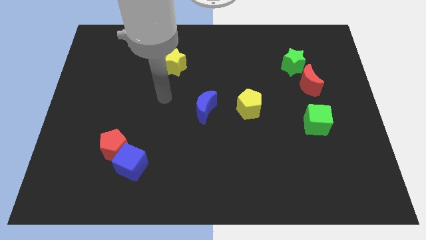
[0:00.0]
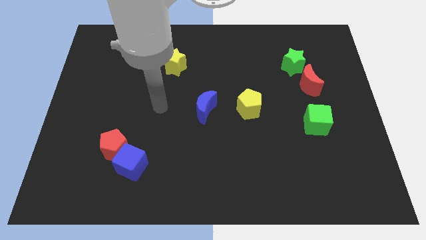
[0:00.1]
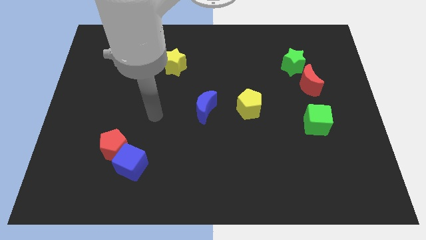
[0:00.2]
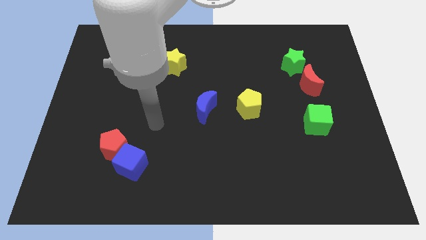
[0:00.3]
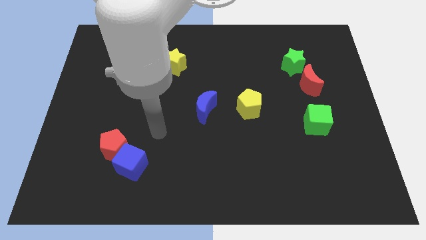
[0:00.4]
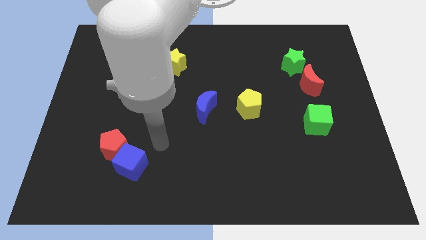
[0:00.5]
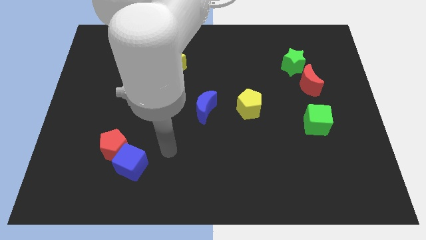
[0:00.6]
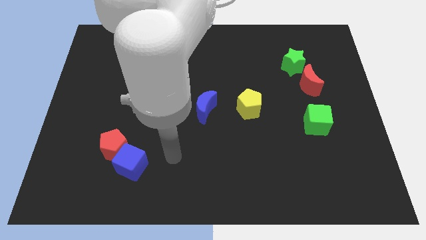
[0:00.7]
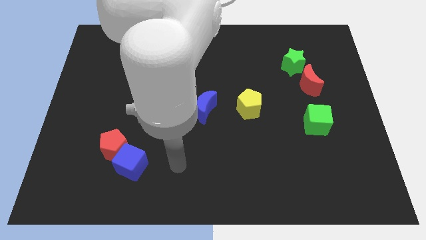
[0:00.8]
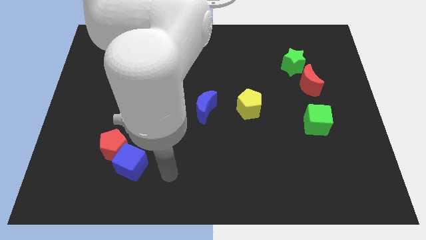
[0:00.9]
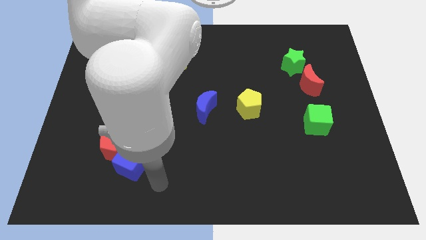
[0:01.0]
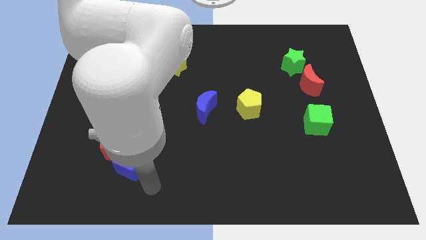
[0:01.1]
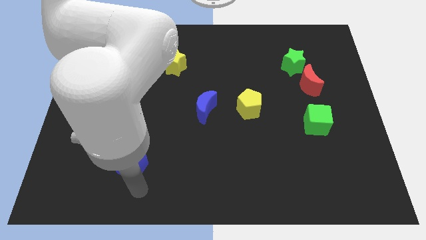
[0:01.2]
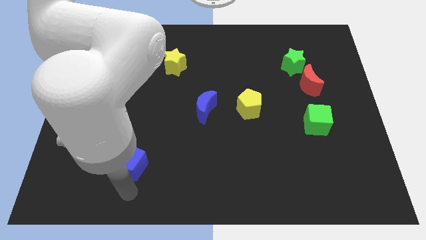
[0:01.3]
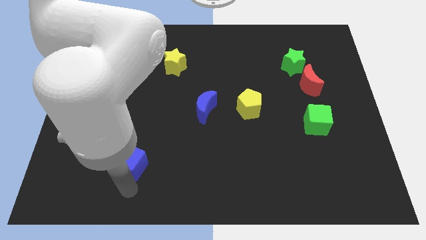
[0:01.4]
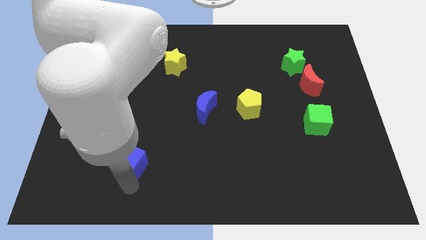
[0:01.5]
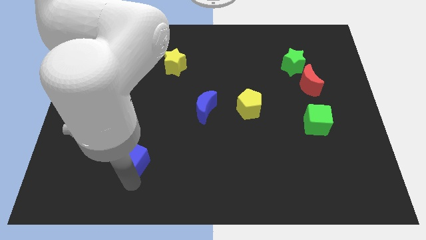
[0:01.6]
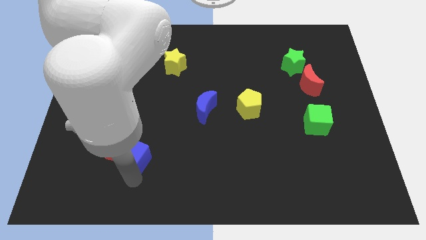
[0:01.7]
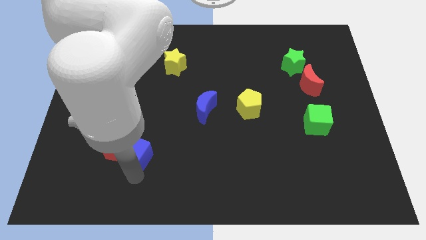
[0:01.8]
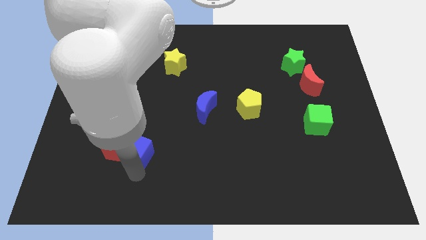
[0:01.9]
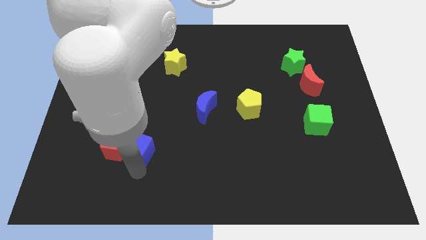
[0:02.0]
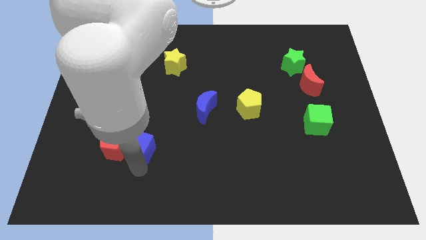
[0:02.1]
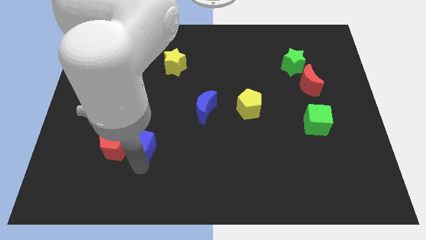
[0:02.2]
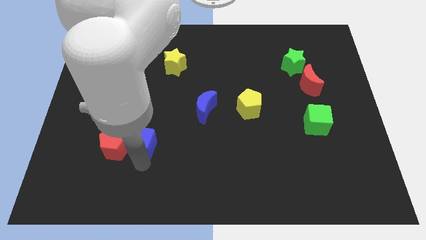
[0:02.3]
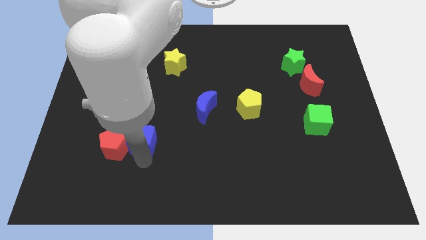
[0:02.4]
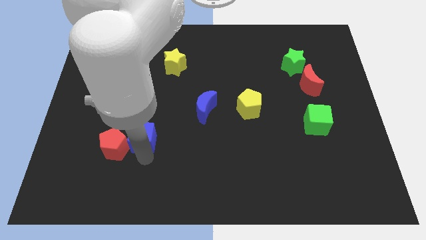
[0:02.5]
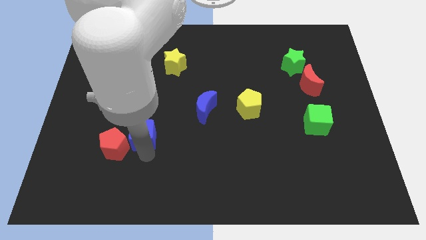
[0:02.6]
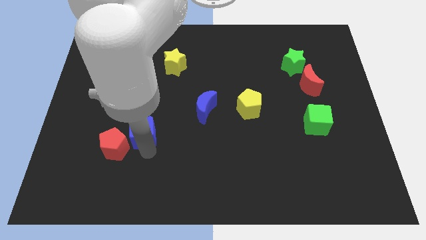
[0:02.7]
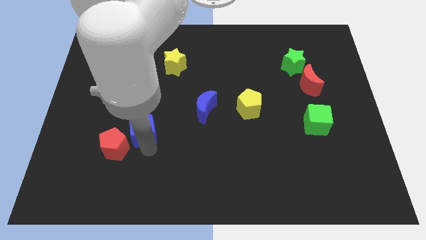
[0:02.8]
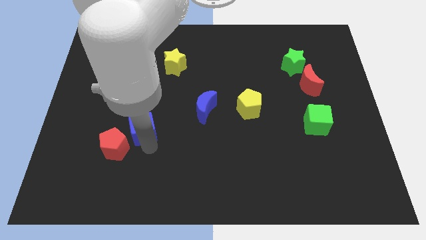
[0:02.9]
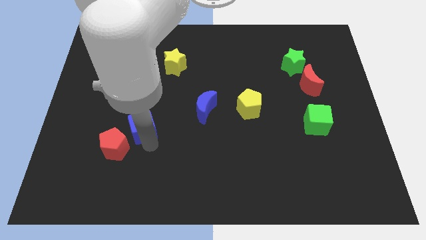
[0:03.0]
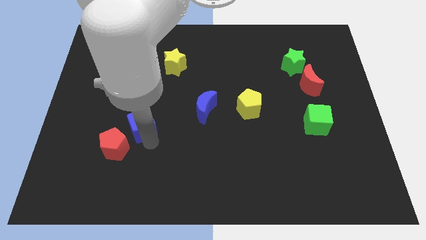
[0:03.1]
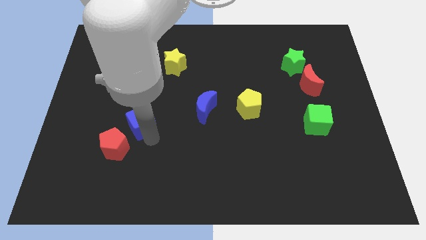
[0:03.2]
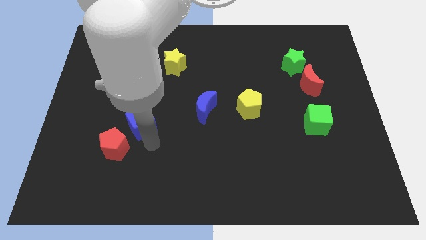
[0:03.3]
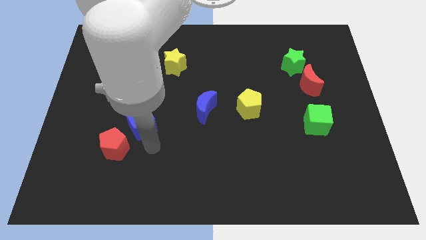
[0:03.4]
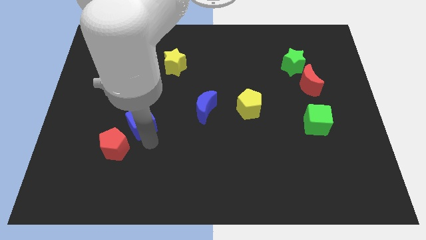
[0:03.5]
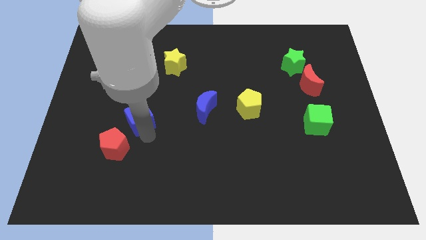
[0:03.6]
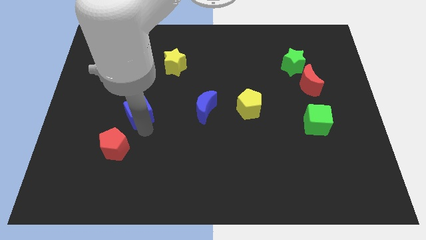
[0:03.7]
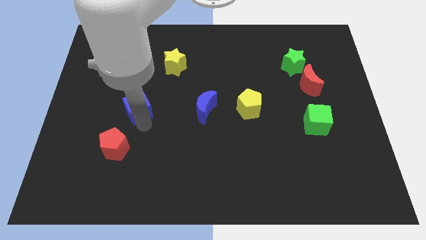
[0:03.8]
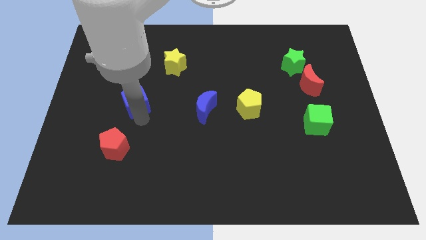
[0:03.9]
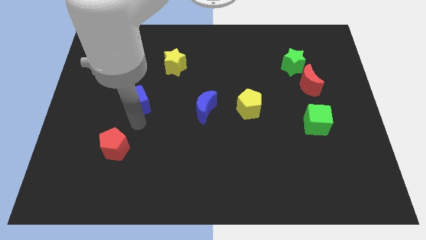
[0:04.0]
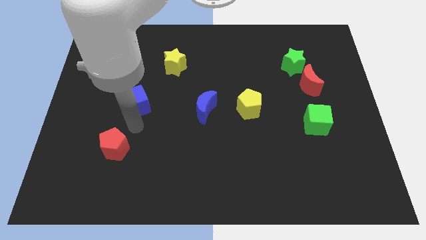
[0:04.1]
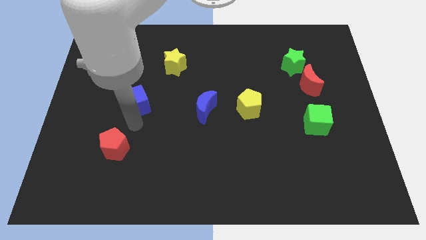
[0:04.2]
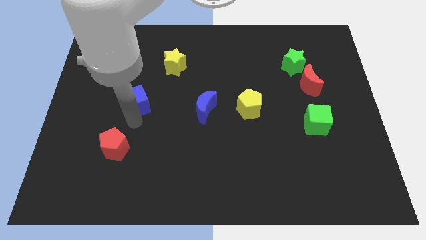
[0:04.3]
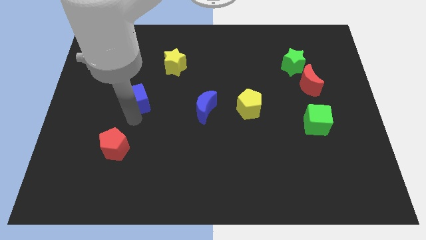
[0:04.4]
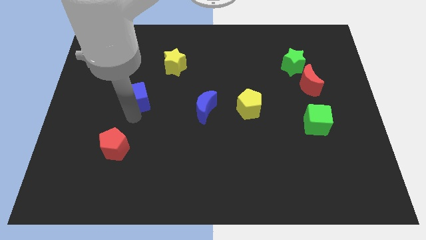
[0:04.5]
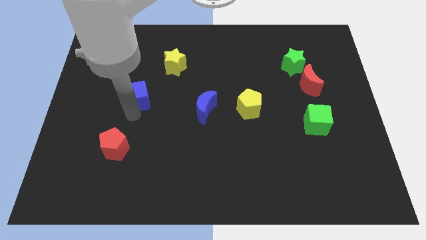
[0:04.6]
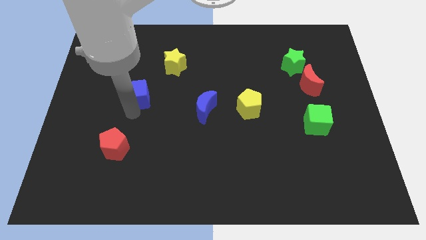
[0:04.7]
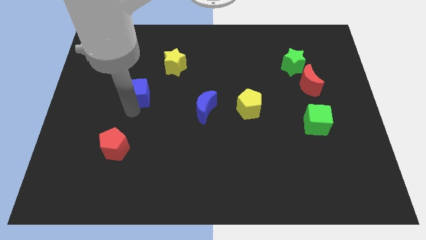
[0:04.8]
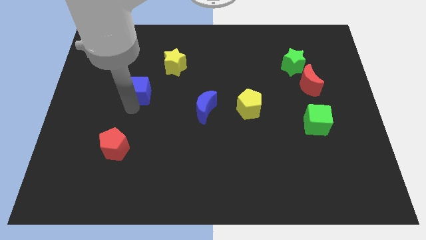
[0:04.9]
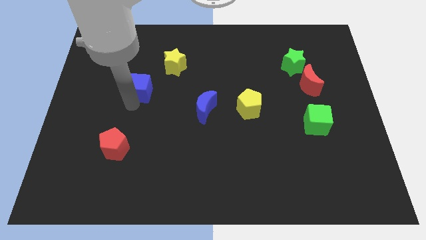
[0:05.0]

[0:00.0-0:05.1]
move the blue cube up

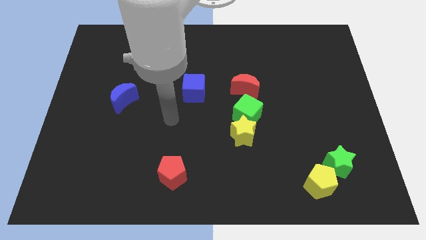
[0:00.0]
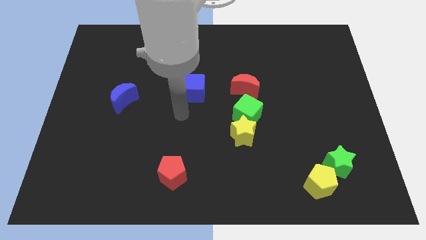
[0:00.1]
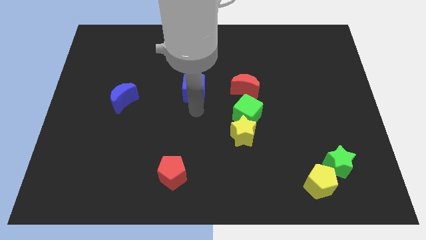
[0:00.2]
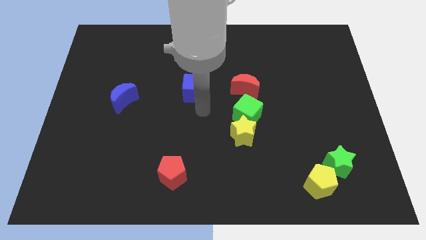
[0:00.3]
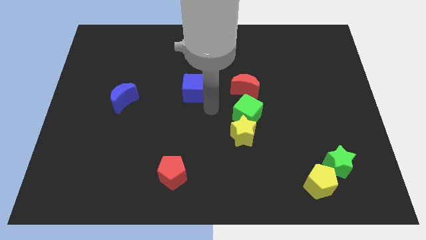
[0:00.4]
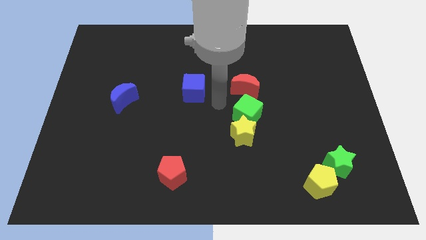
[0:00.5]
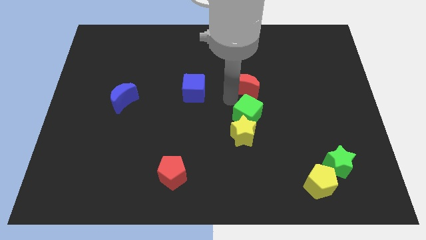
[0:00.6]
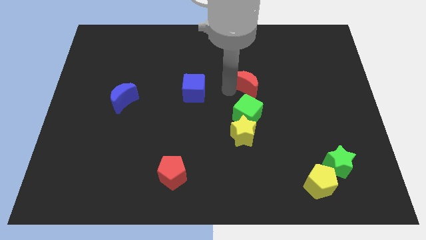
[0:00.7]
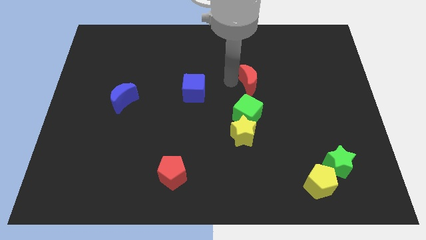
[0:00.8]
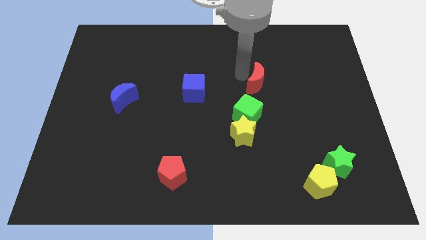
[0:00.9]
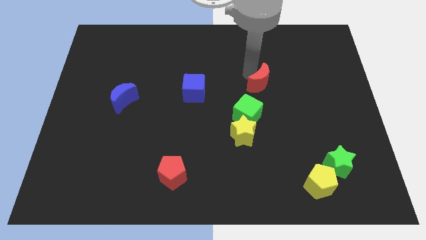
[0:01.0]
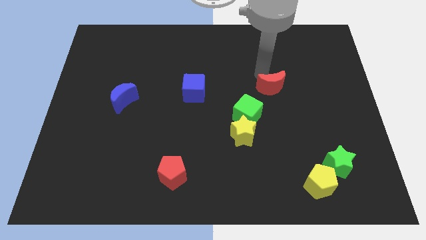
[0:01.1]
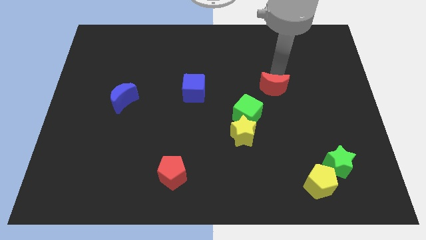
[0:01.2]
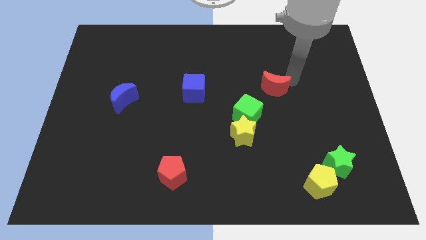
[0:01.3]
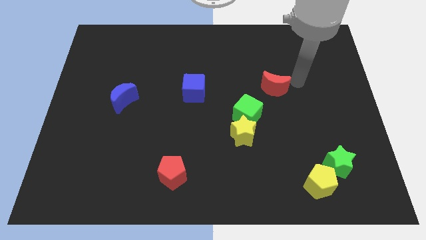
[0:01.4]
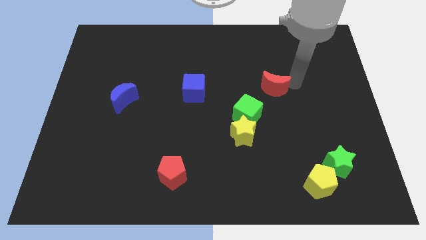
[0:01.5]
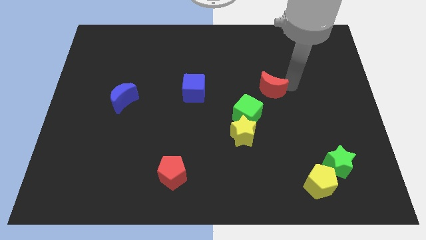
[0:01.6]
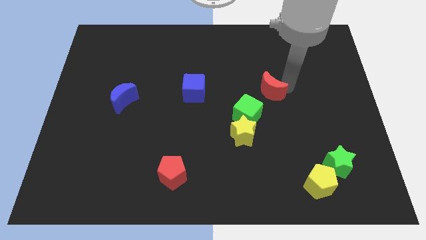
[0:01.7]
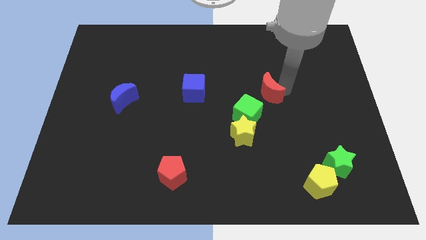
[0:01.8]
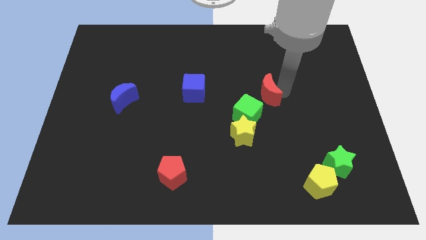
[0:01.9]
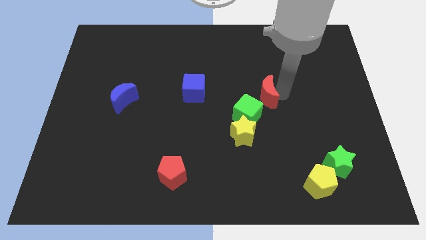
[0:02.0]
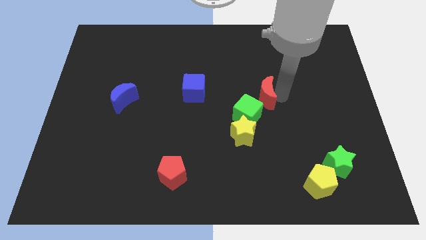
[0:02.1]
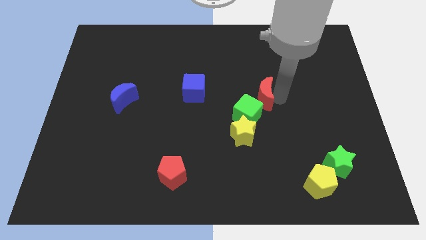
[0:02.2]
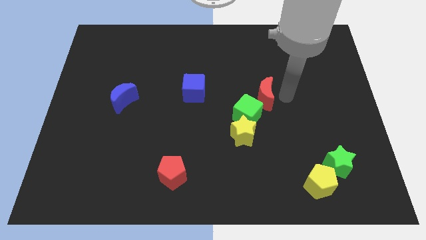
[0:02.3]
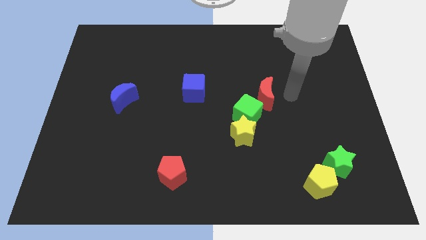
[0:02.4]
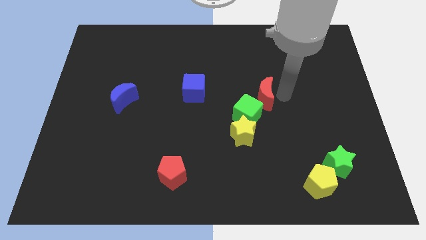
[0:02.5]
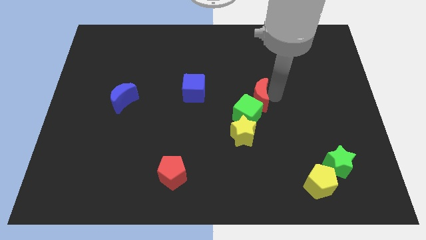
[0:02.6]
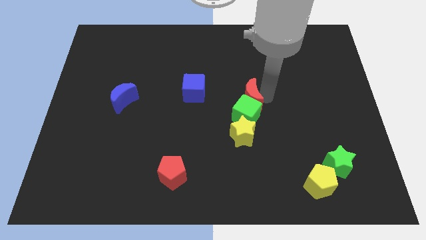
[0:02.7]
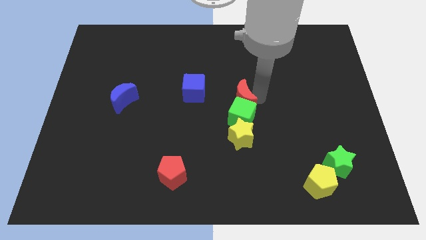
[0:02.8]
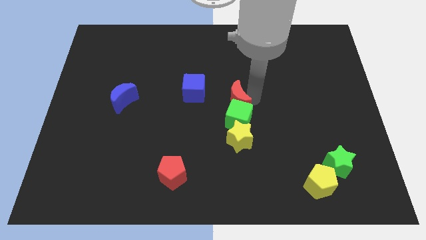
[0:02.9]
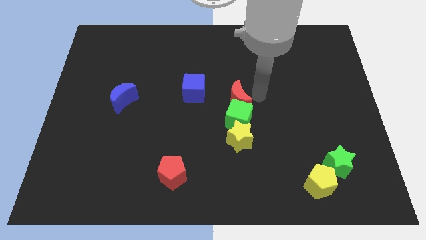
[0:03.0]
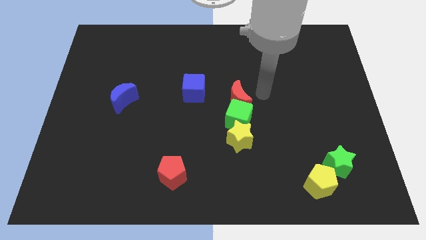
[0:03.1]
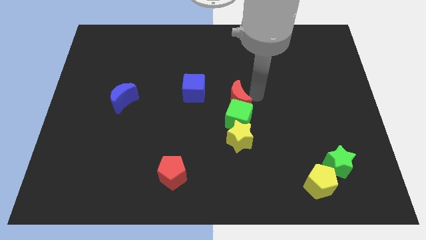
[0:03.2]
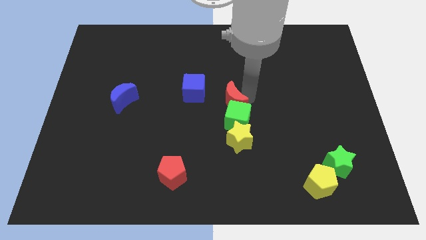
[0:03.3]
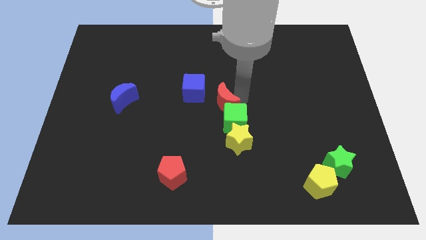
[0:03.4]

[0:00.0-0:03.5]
slightly slide the red moon down and to the left
